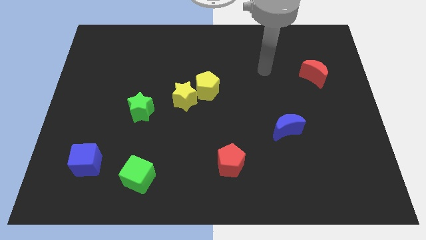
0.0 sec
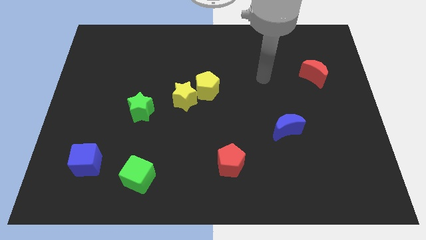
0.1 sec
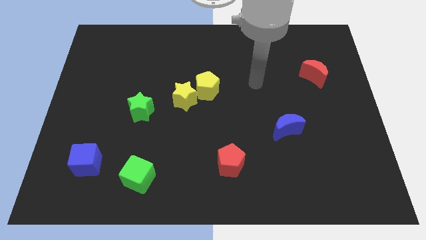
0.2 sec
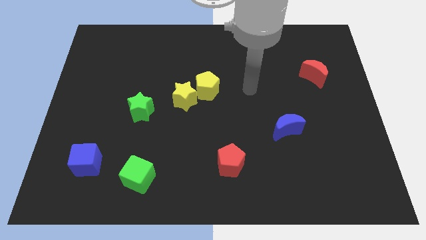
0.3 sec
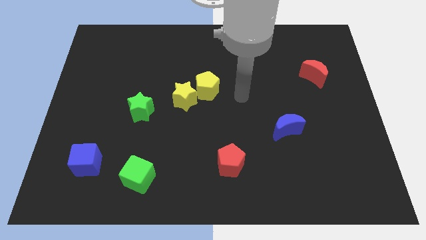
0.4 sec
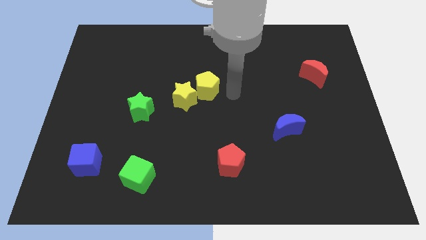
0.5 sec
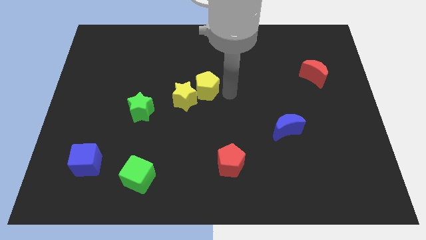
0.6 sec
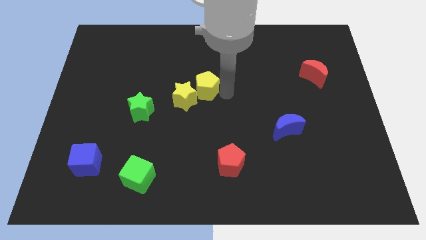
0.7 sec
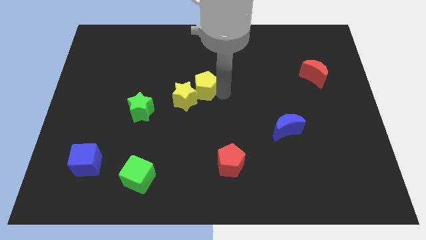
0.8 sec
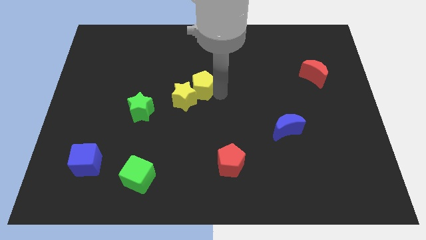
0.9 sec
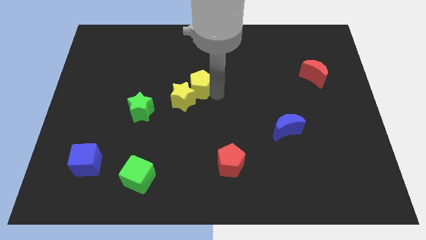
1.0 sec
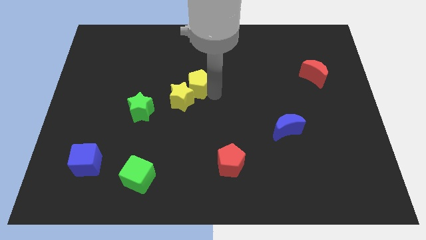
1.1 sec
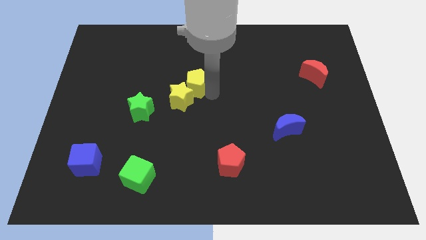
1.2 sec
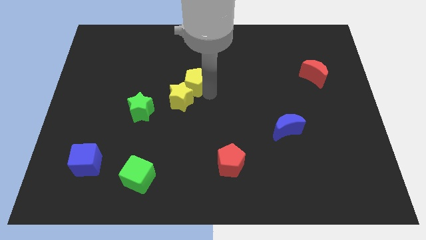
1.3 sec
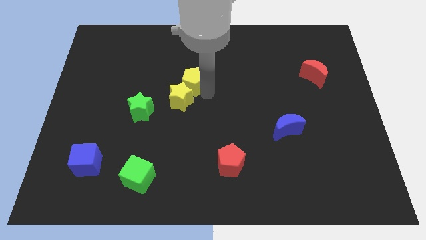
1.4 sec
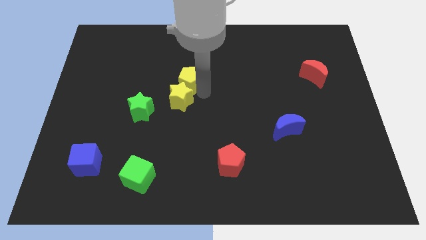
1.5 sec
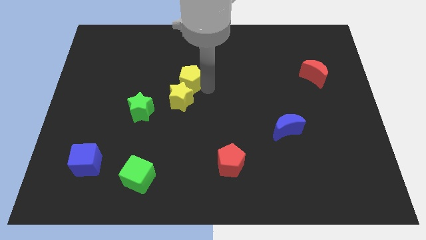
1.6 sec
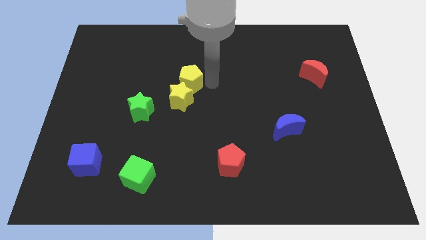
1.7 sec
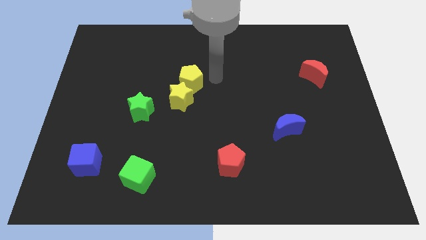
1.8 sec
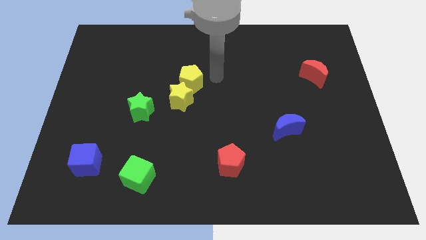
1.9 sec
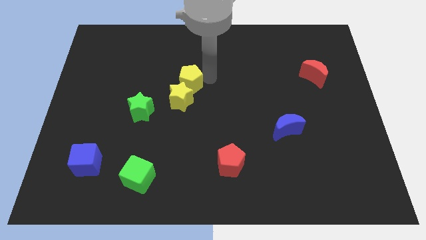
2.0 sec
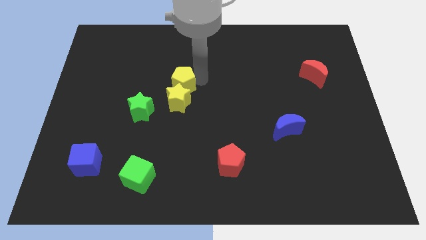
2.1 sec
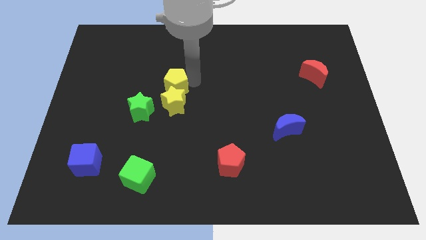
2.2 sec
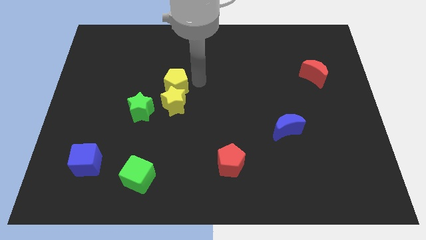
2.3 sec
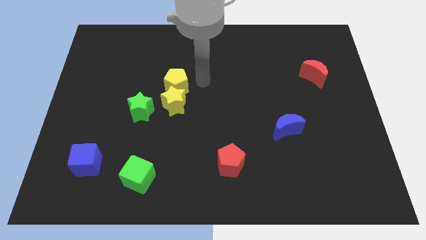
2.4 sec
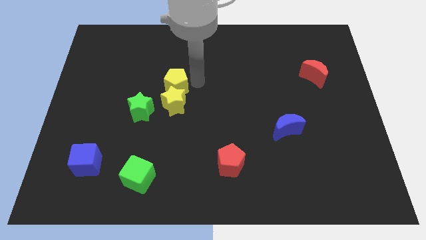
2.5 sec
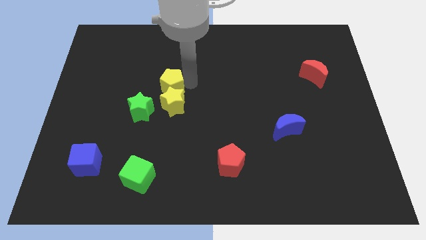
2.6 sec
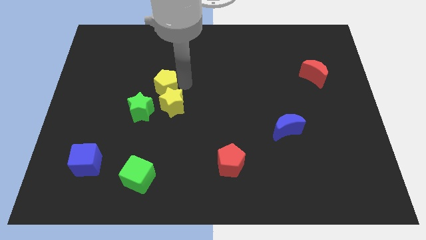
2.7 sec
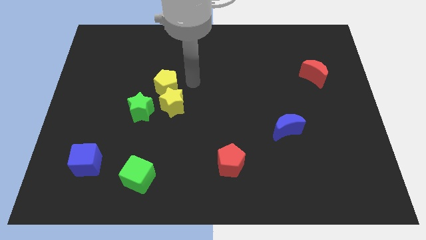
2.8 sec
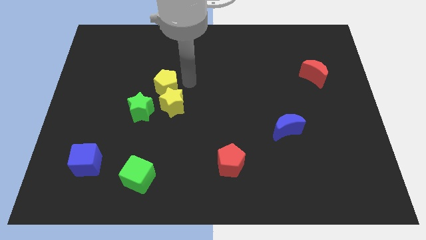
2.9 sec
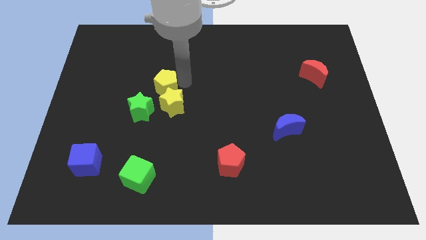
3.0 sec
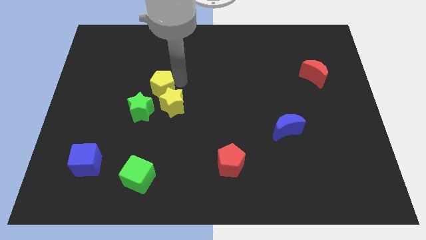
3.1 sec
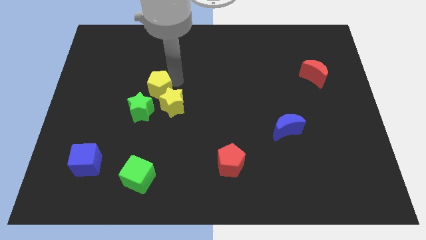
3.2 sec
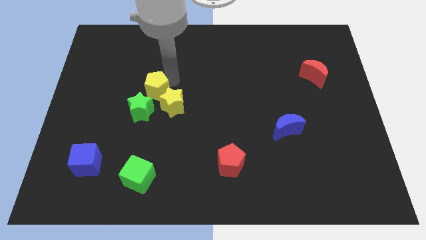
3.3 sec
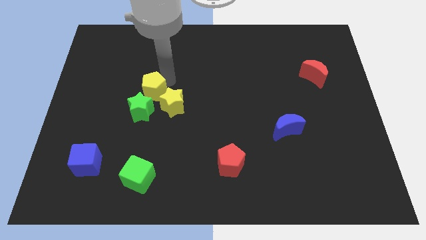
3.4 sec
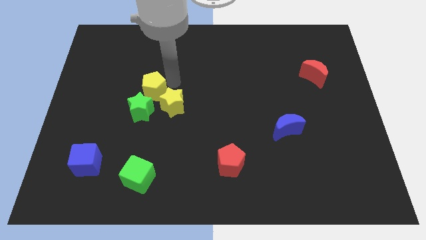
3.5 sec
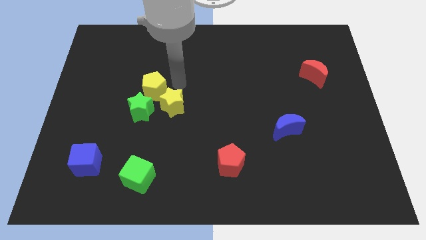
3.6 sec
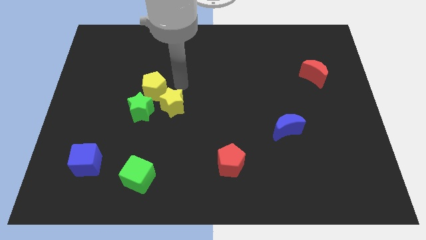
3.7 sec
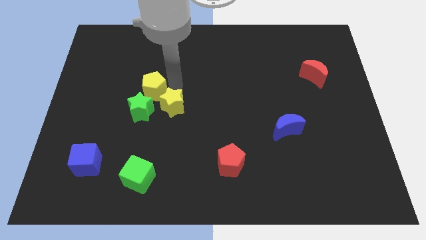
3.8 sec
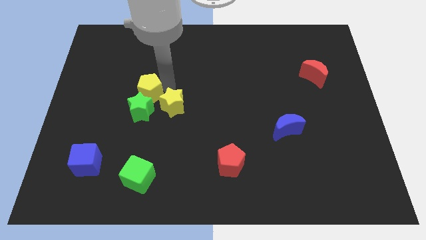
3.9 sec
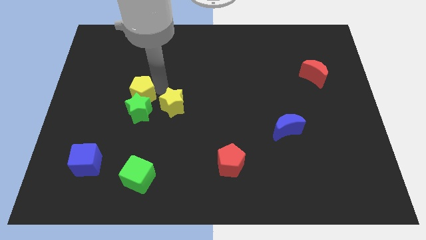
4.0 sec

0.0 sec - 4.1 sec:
move the yellow pentagon to the top left of the green star

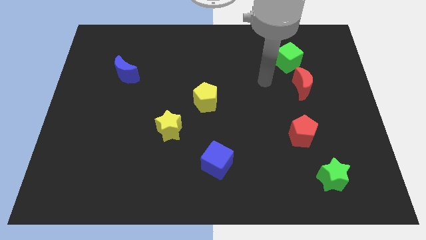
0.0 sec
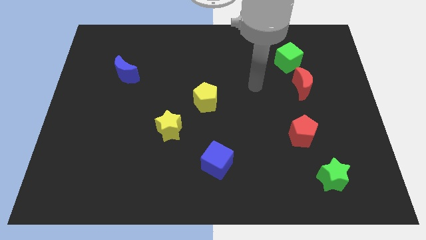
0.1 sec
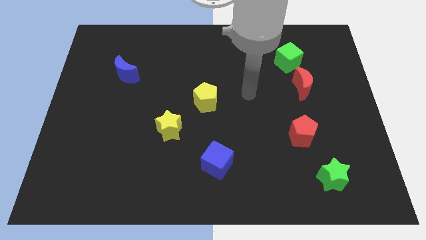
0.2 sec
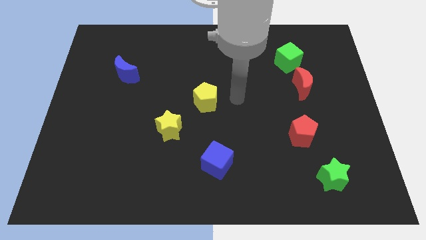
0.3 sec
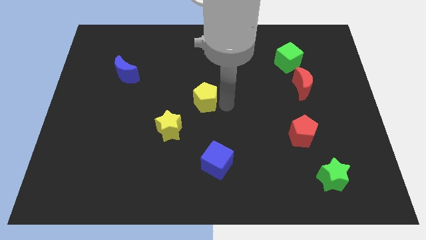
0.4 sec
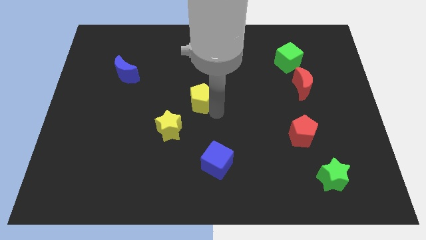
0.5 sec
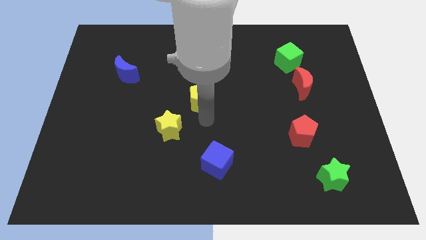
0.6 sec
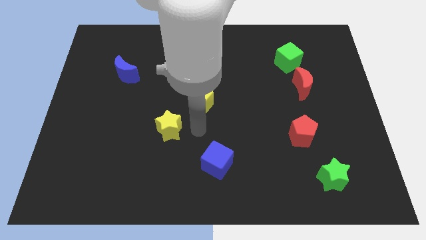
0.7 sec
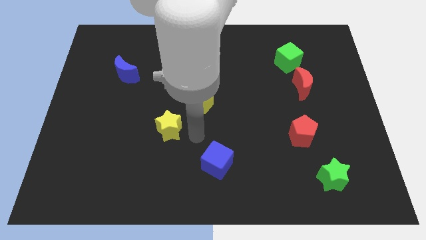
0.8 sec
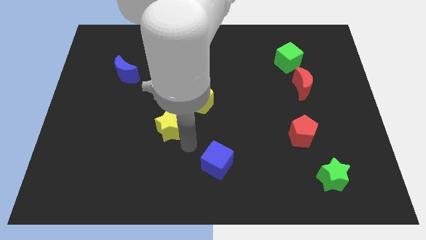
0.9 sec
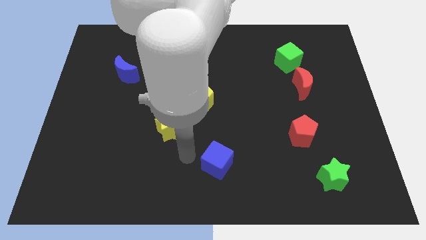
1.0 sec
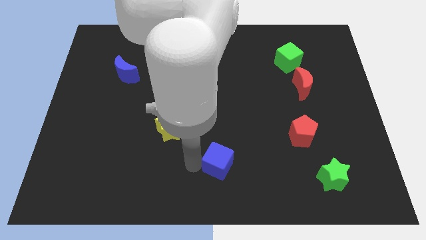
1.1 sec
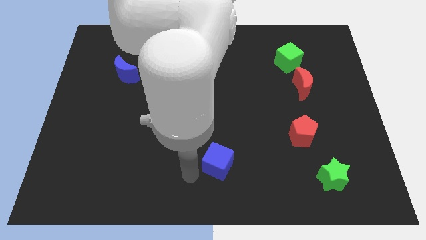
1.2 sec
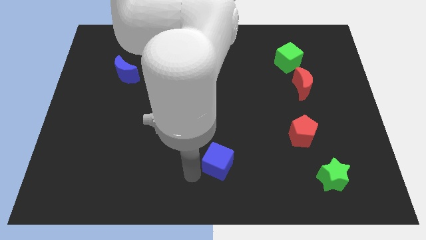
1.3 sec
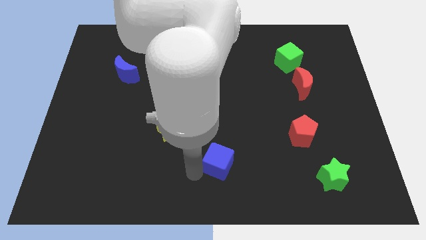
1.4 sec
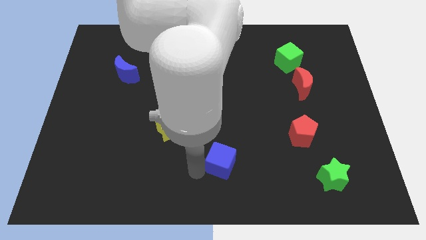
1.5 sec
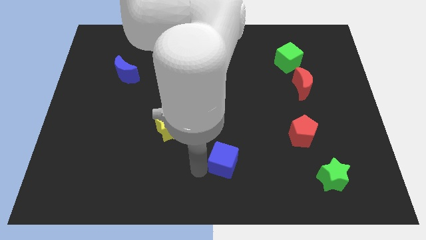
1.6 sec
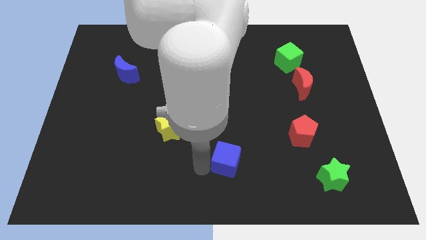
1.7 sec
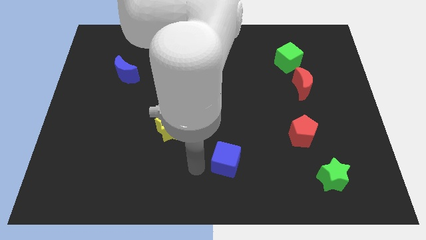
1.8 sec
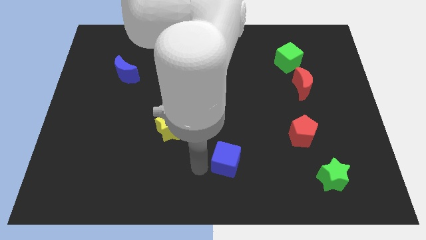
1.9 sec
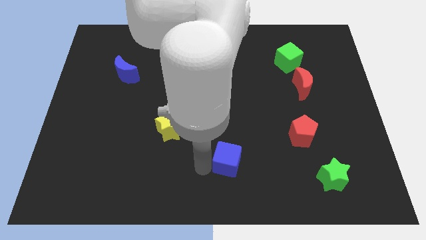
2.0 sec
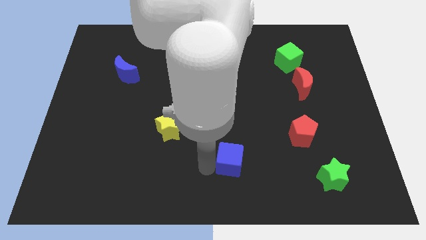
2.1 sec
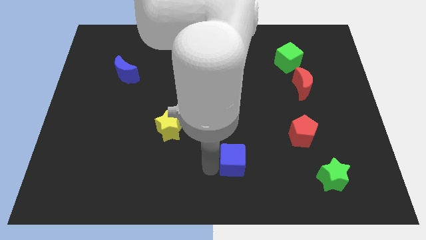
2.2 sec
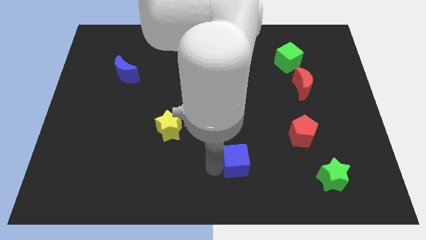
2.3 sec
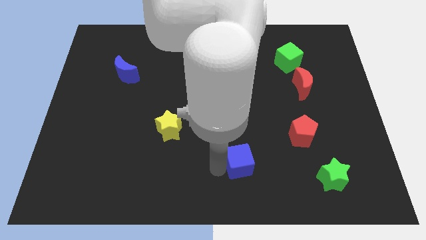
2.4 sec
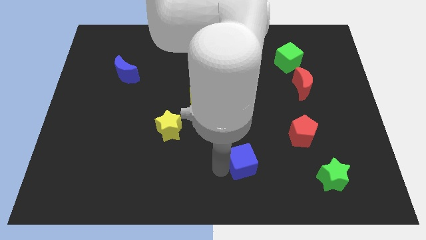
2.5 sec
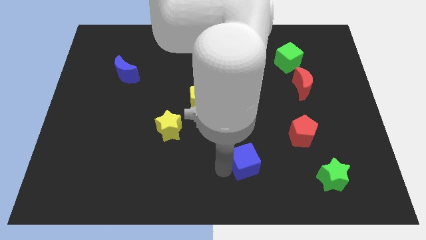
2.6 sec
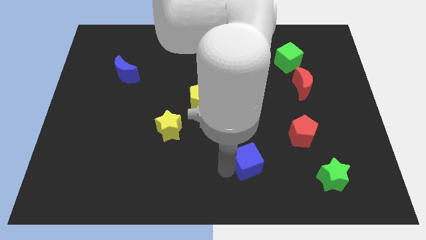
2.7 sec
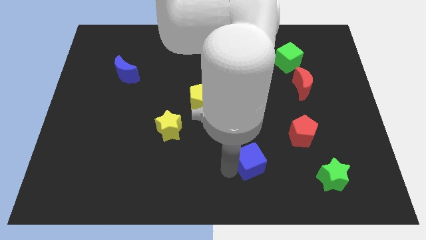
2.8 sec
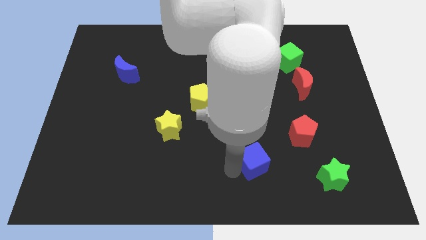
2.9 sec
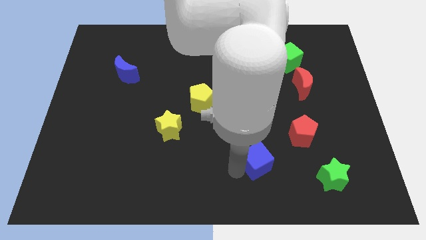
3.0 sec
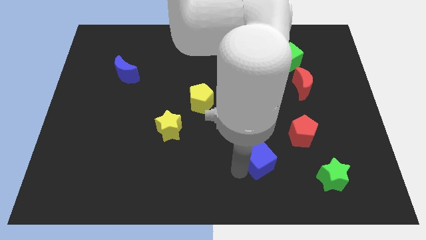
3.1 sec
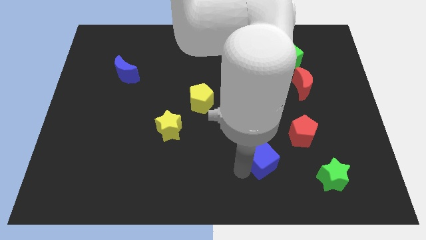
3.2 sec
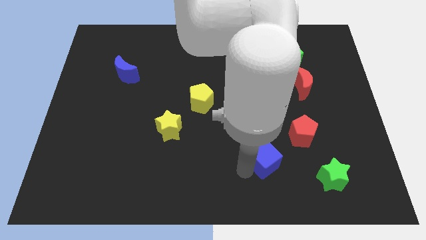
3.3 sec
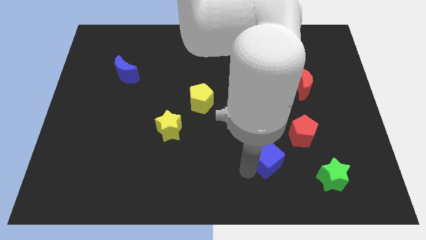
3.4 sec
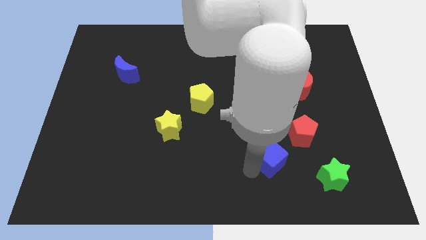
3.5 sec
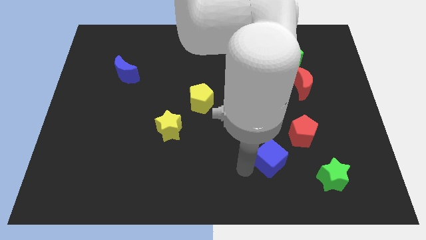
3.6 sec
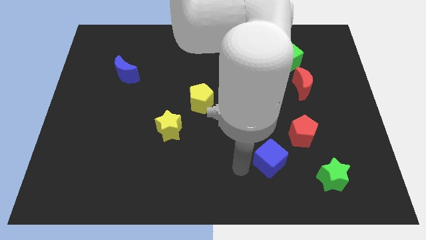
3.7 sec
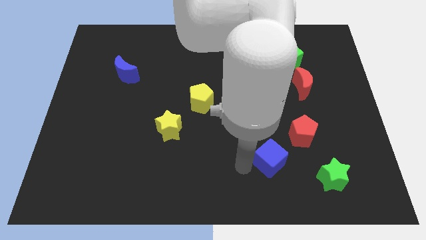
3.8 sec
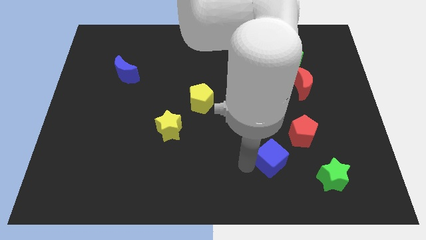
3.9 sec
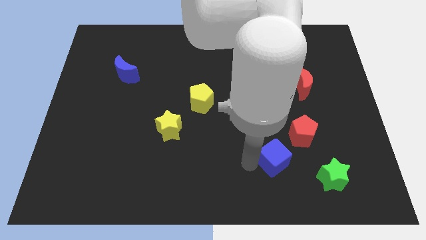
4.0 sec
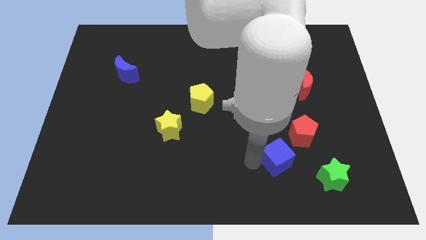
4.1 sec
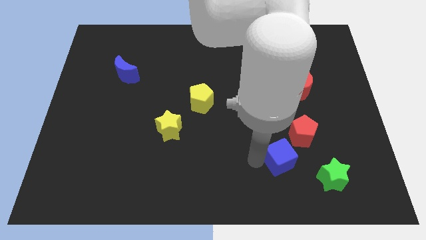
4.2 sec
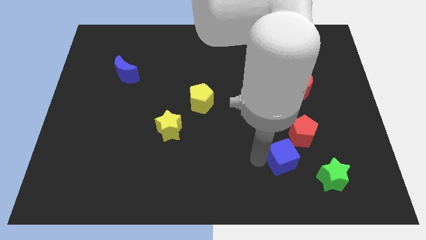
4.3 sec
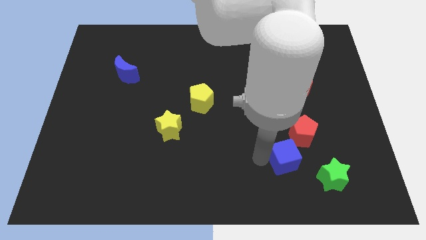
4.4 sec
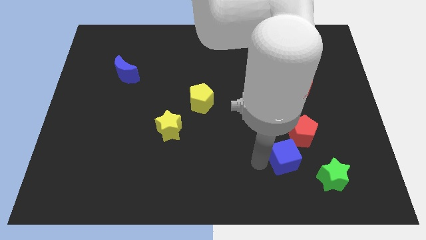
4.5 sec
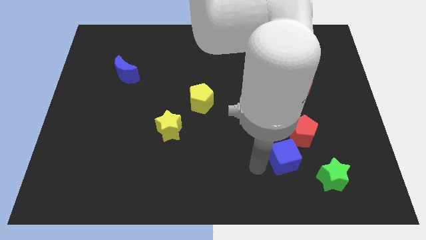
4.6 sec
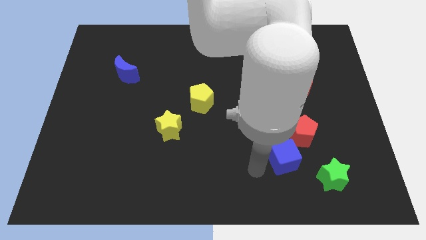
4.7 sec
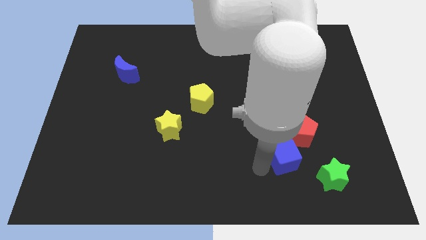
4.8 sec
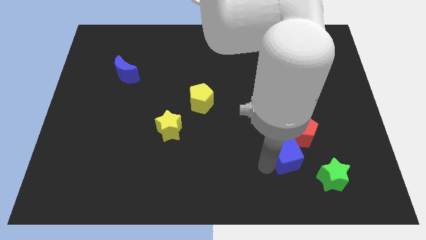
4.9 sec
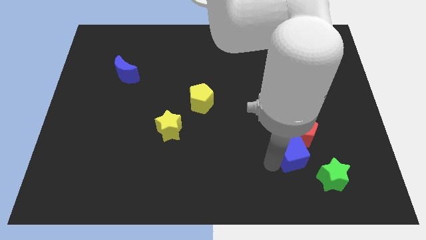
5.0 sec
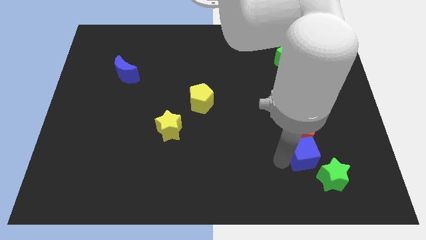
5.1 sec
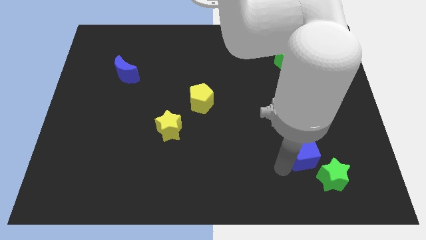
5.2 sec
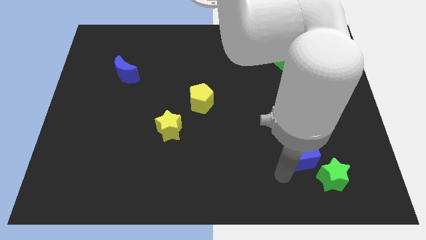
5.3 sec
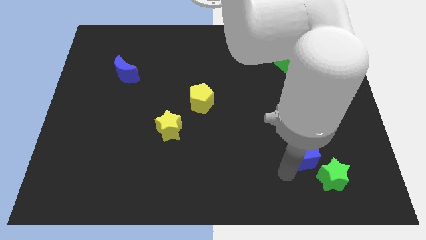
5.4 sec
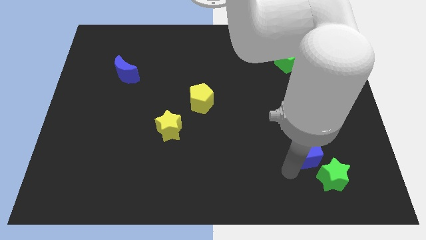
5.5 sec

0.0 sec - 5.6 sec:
move the blue cube to the top side of the green star
